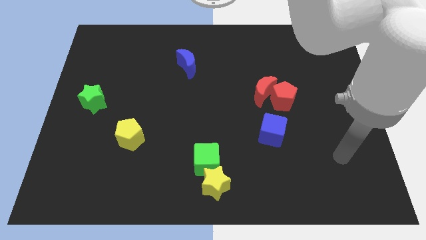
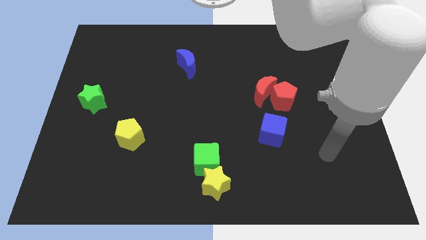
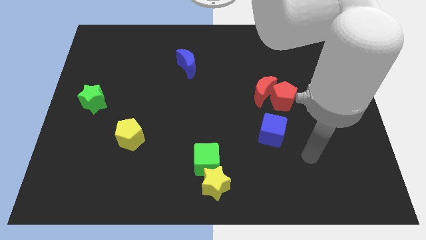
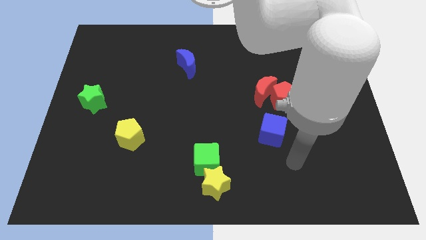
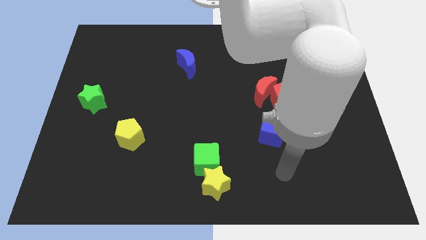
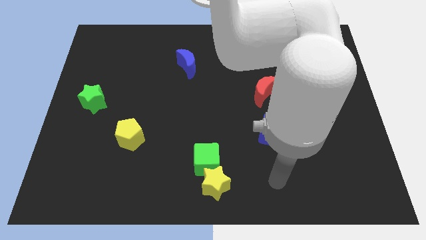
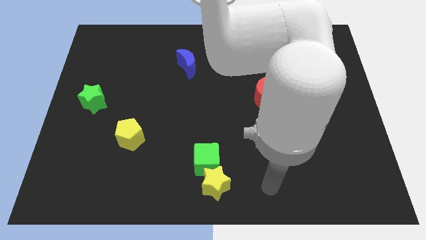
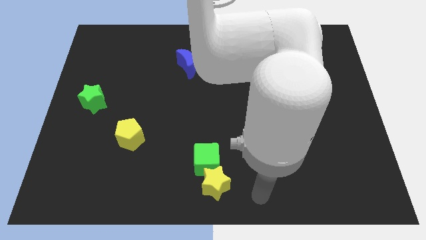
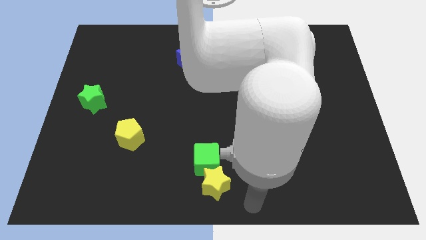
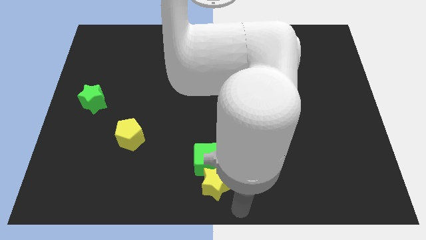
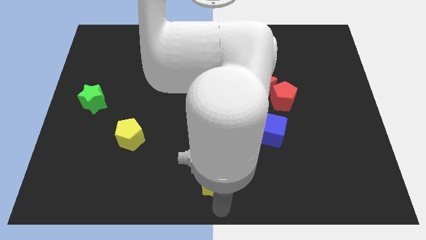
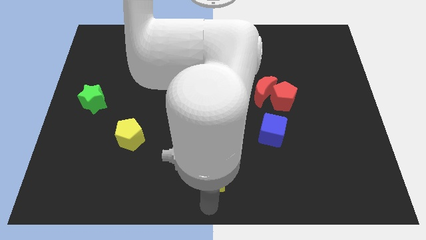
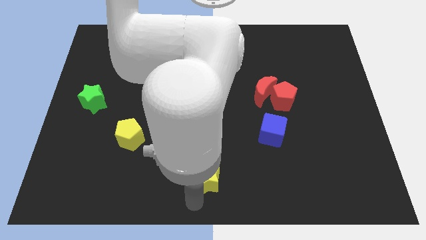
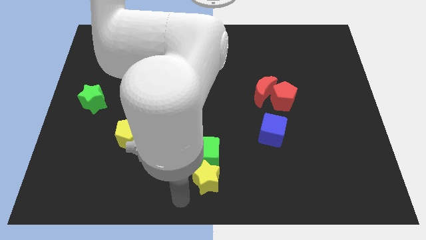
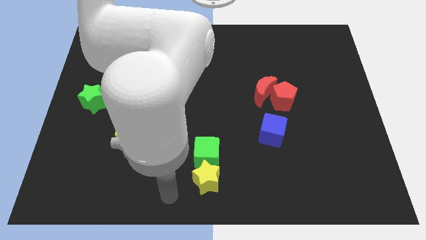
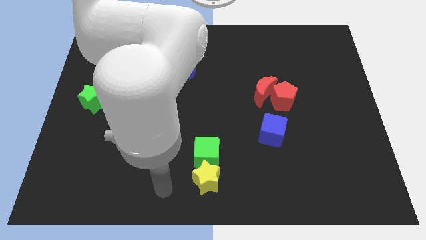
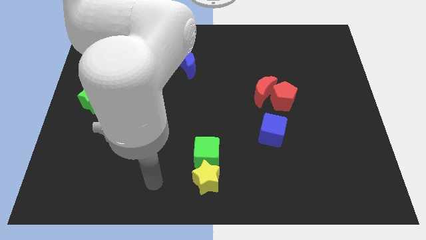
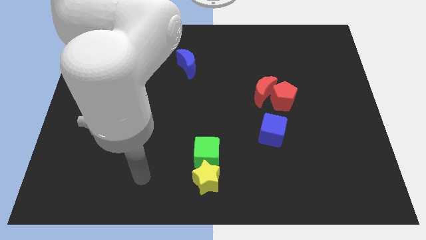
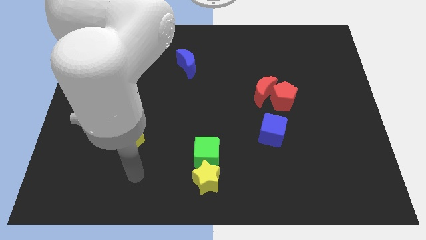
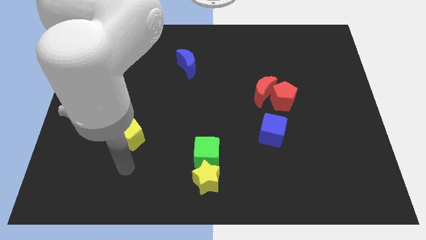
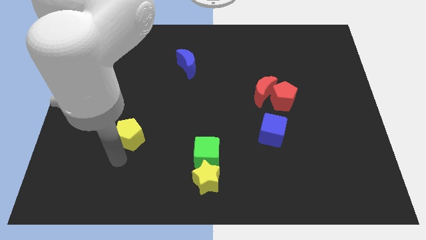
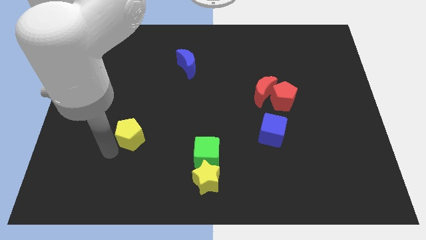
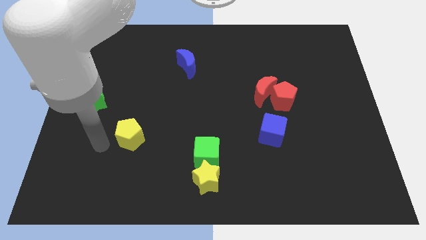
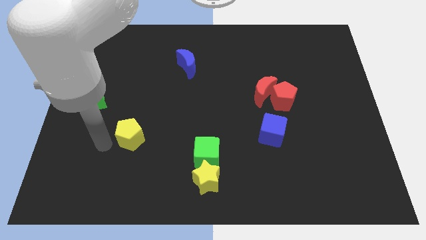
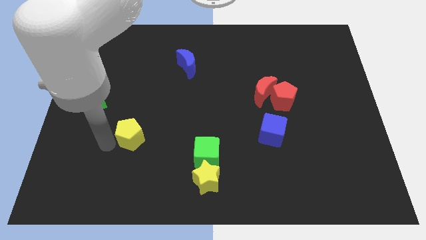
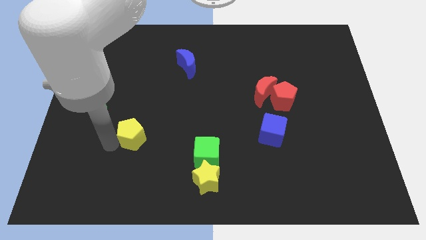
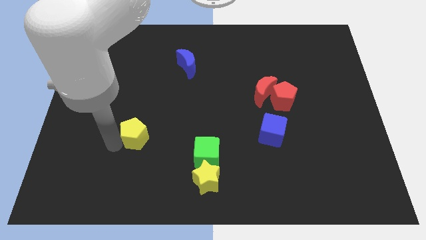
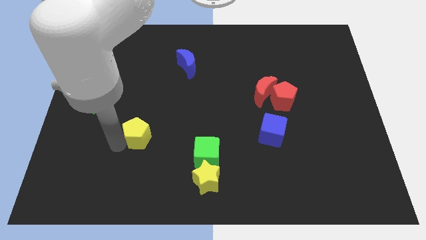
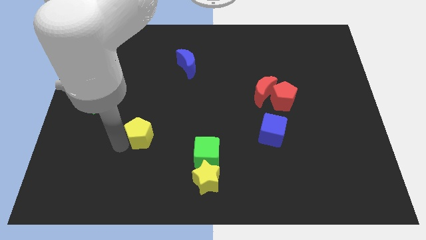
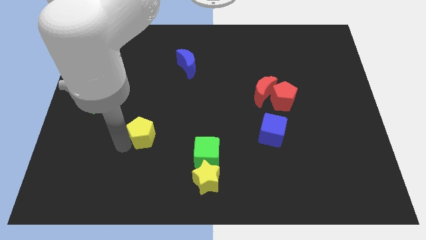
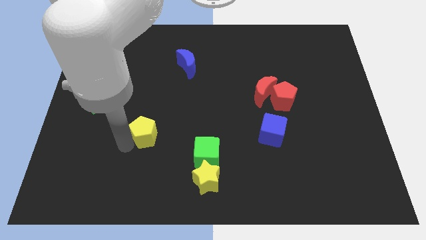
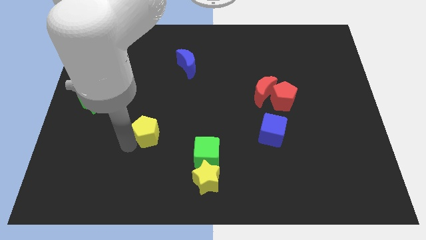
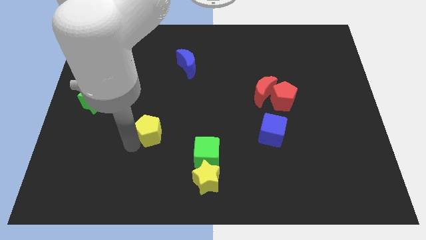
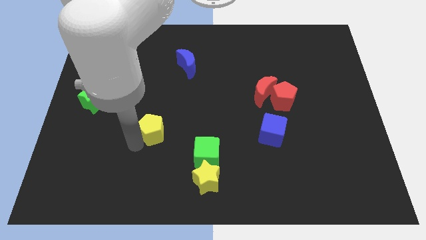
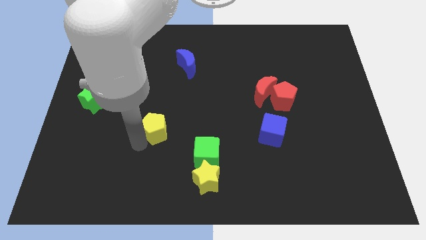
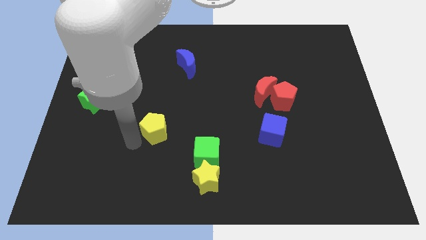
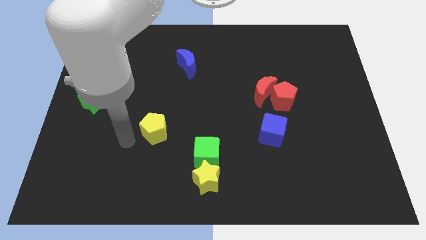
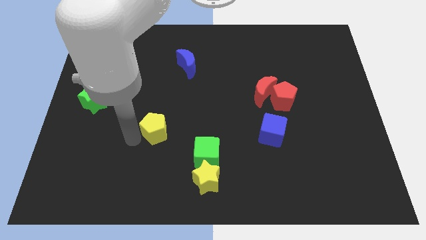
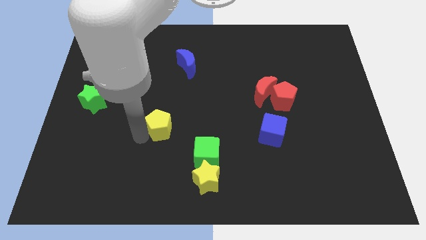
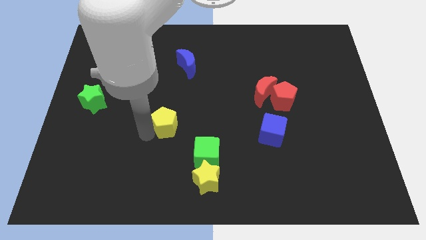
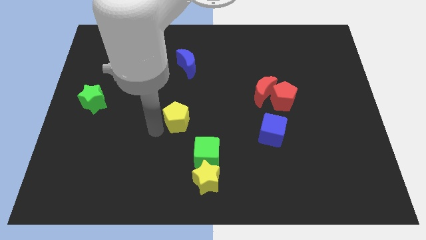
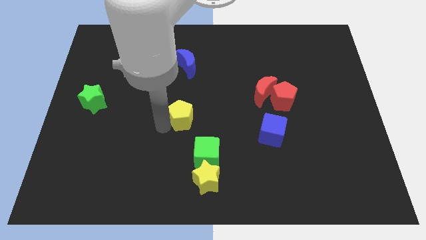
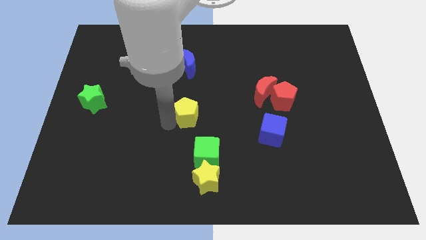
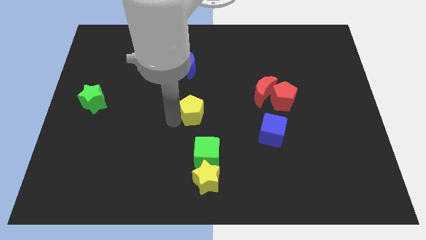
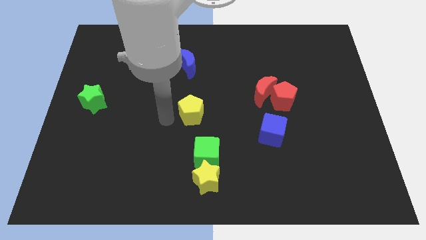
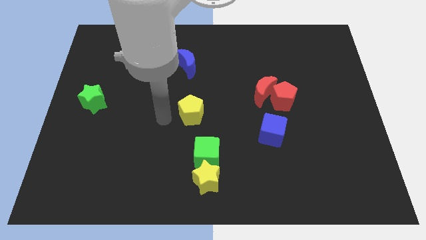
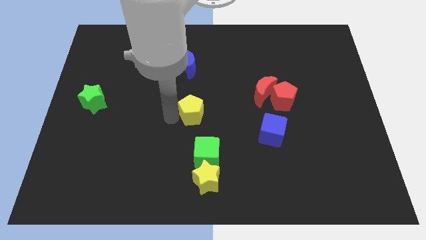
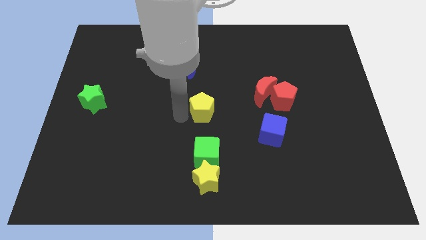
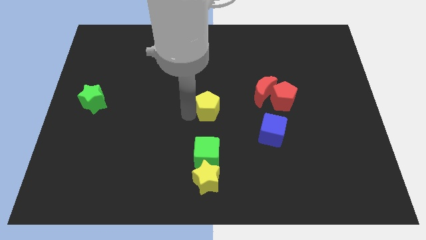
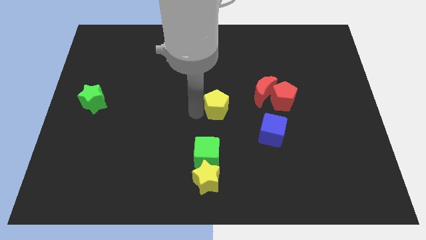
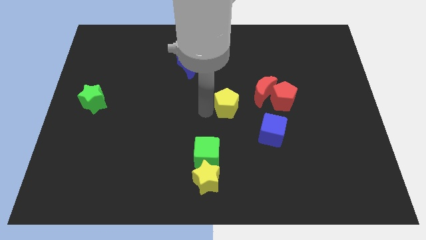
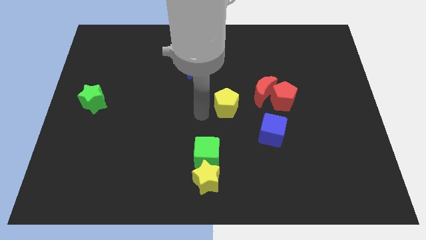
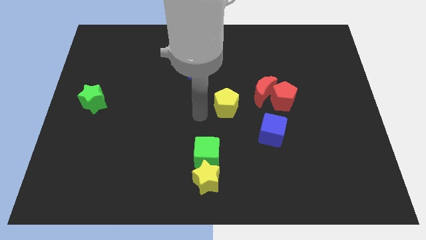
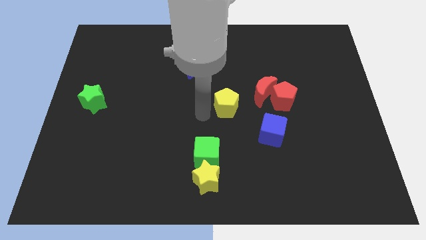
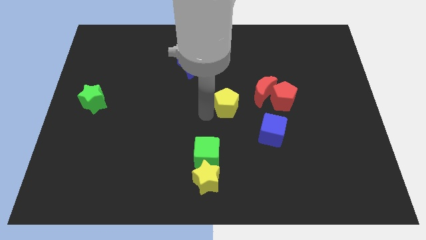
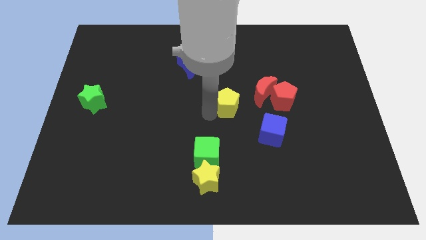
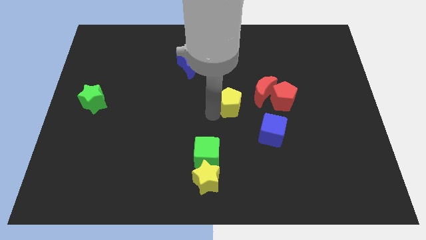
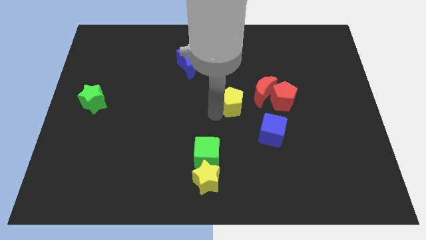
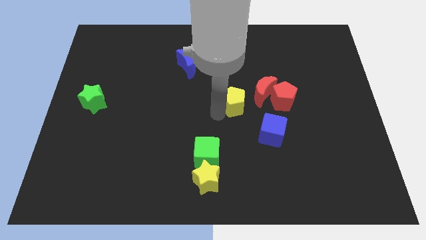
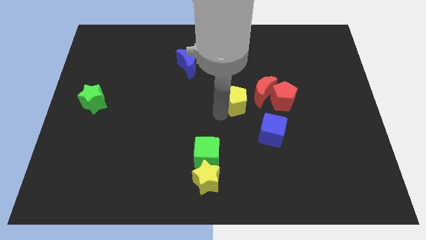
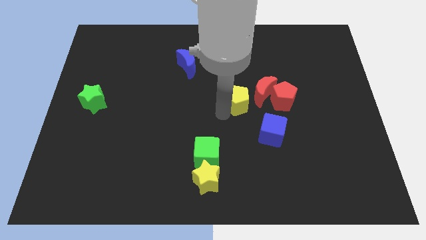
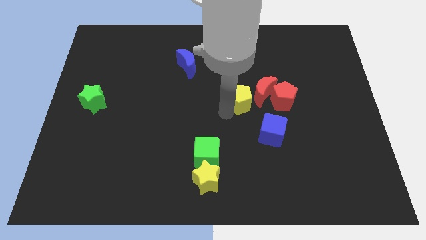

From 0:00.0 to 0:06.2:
move the yellow pentagon close to the red moon

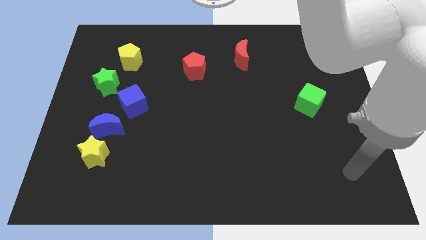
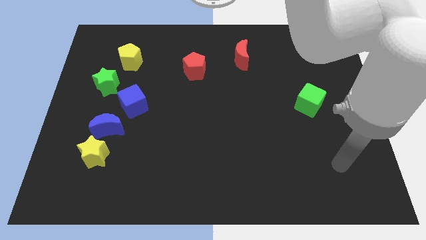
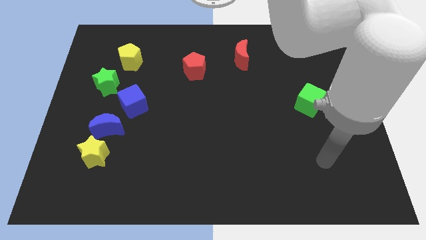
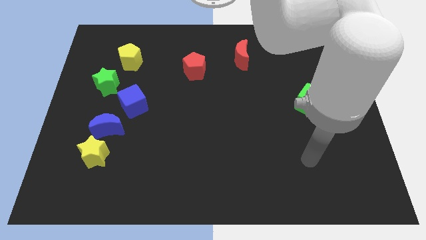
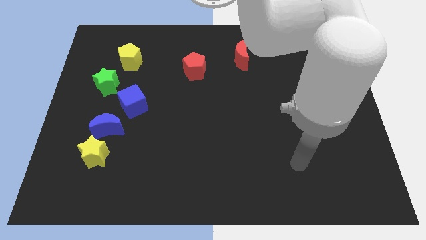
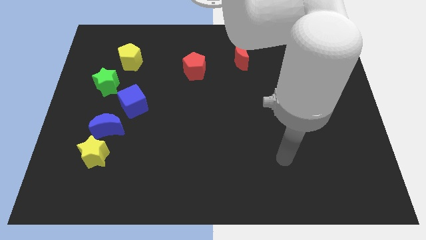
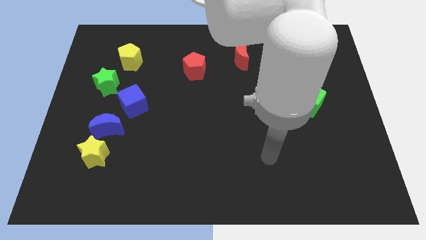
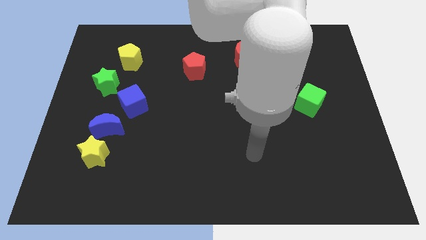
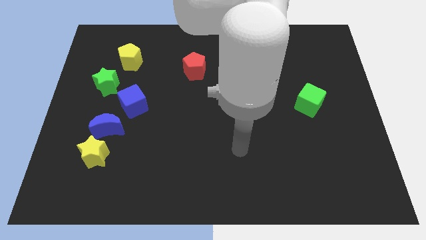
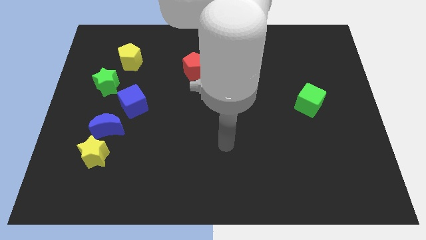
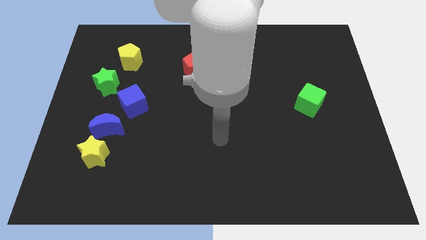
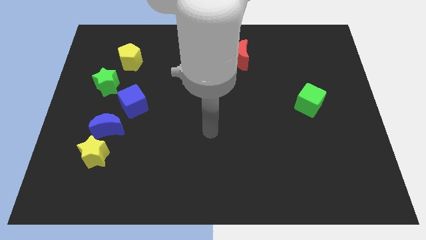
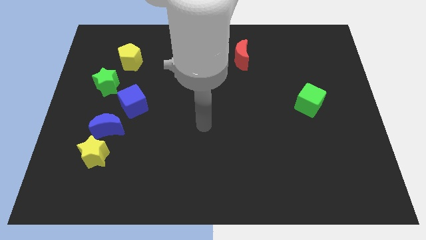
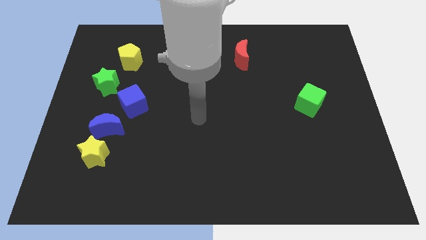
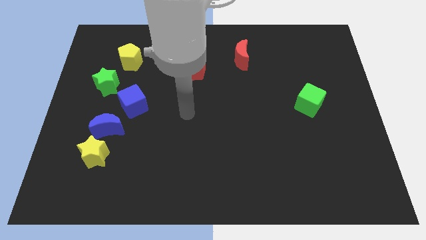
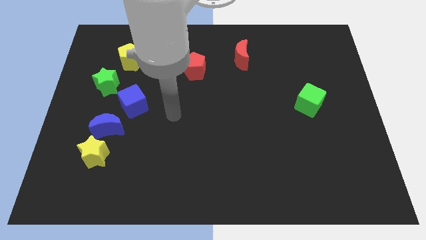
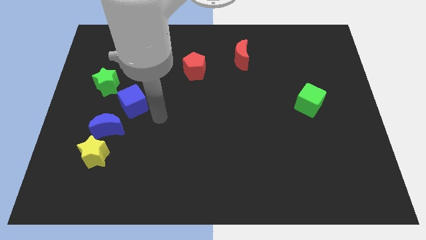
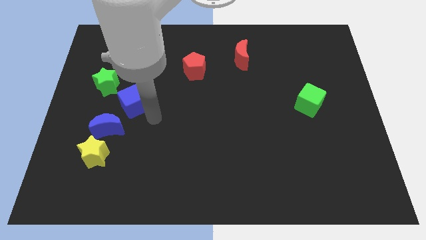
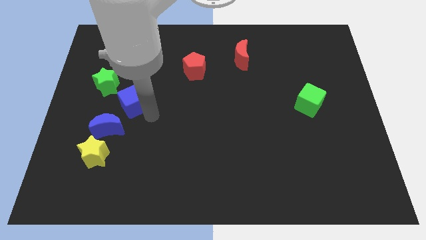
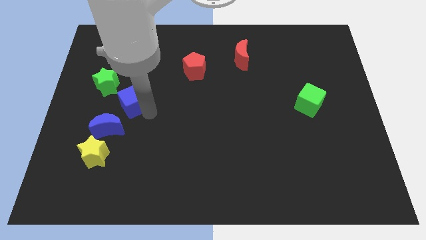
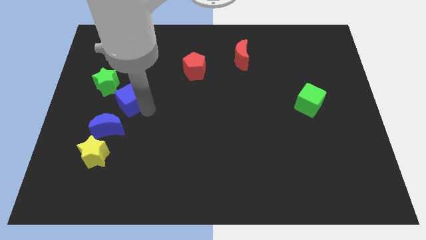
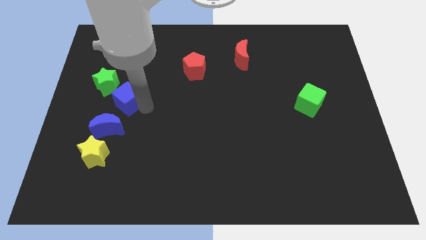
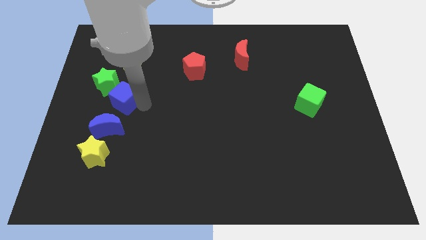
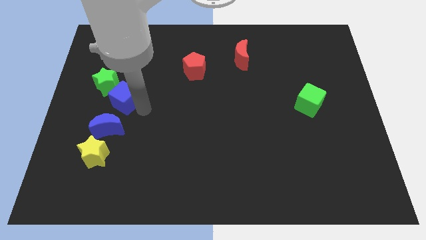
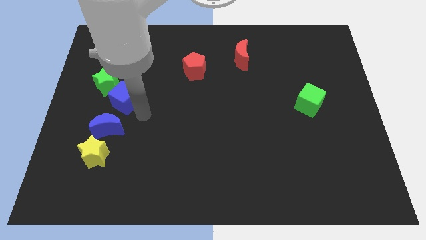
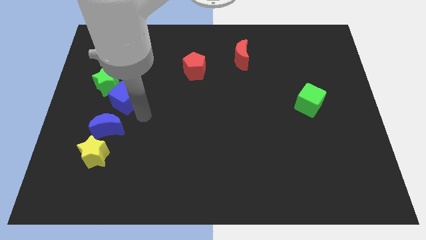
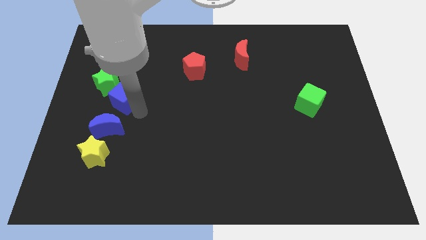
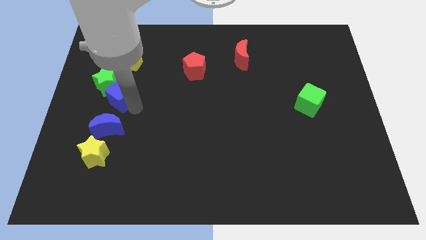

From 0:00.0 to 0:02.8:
move the blue cube close to the green star
